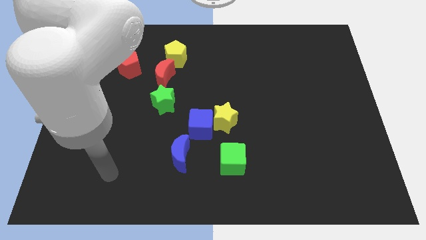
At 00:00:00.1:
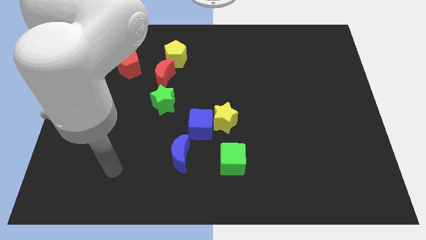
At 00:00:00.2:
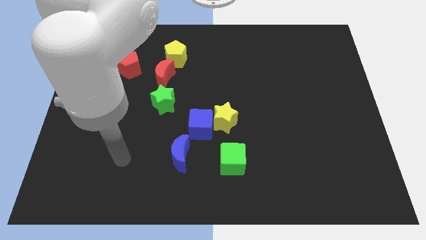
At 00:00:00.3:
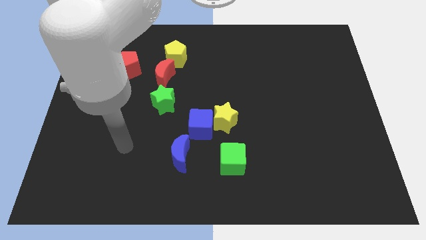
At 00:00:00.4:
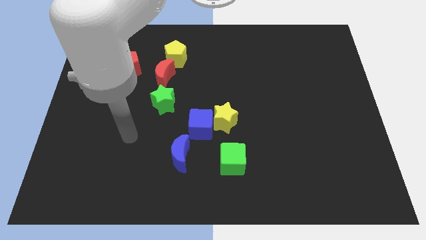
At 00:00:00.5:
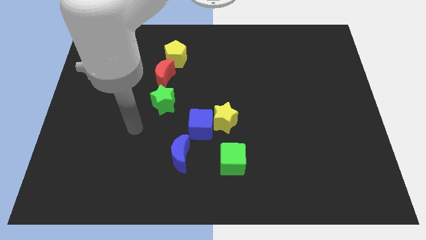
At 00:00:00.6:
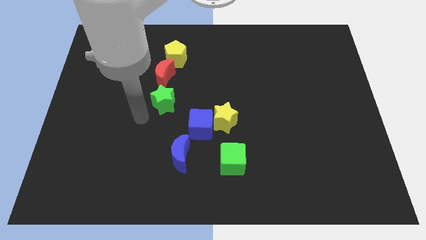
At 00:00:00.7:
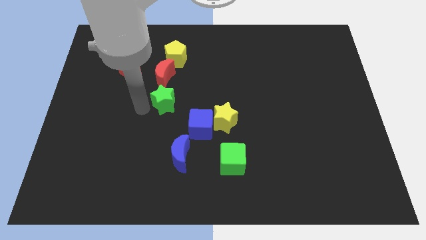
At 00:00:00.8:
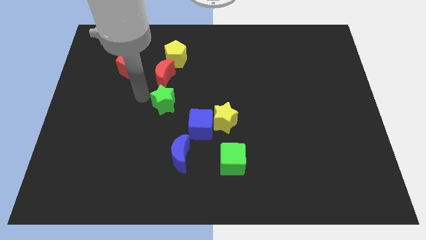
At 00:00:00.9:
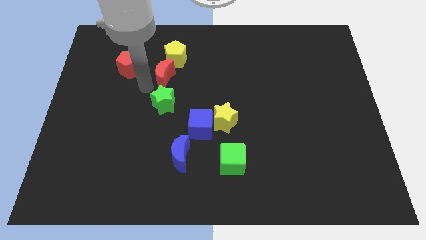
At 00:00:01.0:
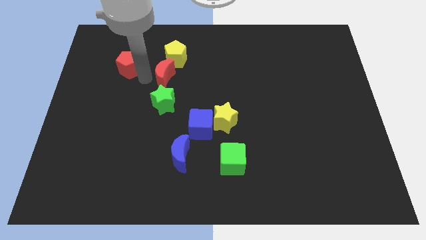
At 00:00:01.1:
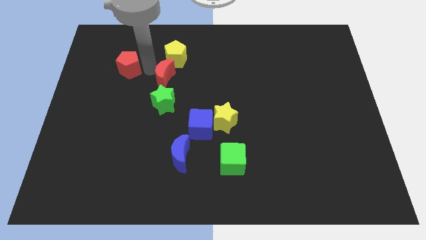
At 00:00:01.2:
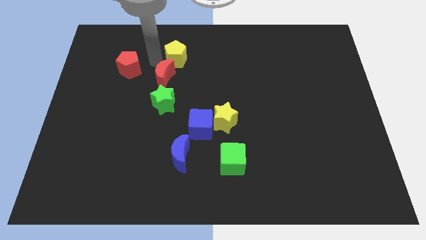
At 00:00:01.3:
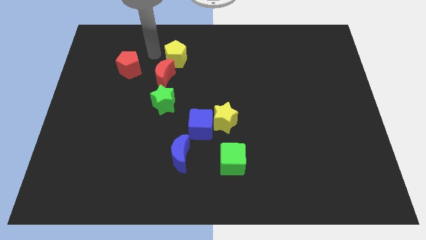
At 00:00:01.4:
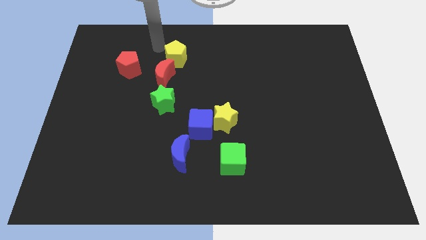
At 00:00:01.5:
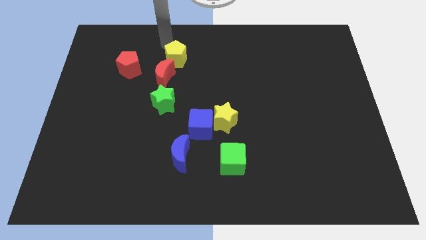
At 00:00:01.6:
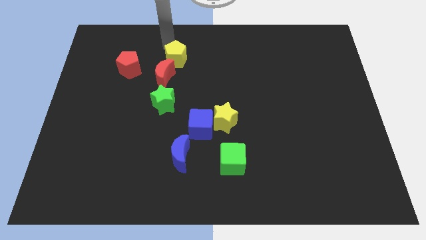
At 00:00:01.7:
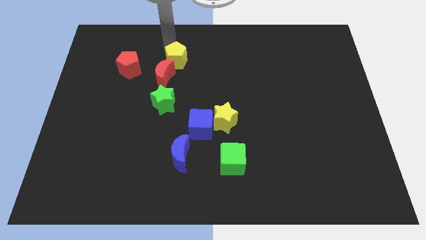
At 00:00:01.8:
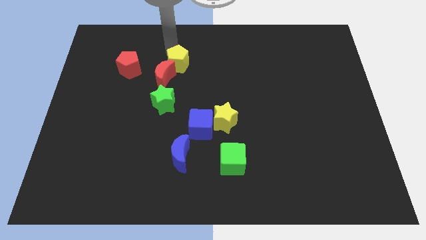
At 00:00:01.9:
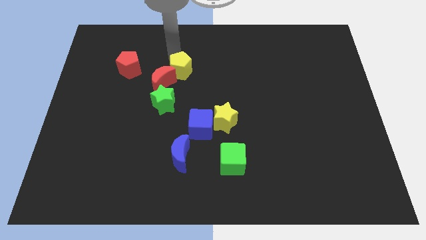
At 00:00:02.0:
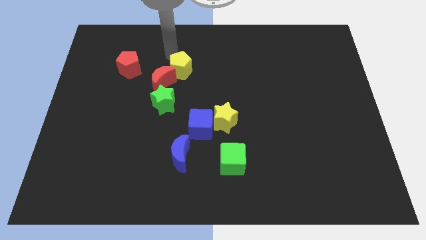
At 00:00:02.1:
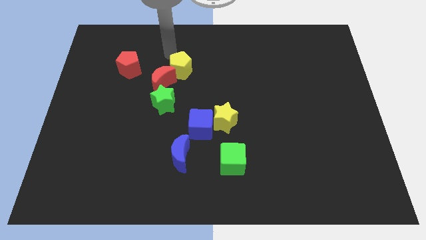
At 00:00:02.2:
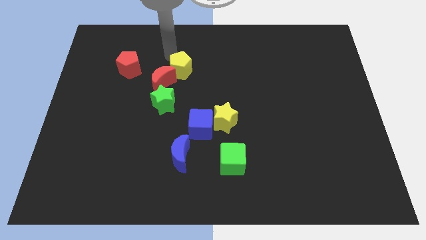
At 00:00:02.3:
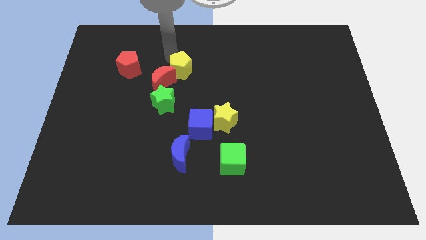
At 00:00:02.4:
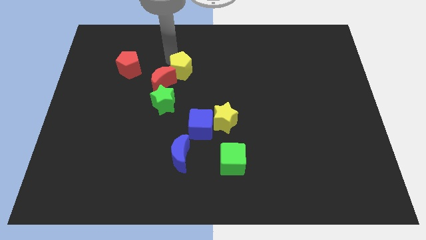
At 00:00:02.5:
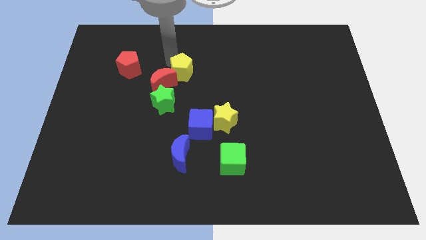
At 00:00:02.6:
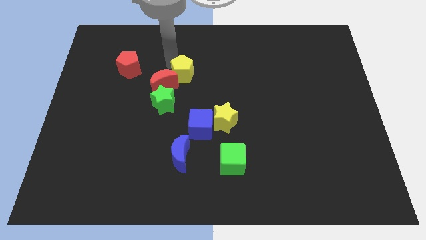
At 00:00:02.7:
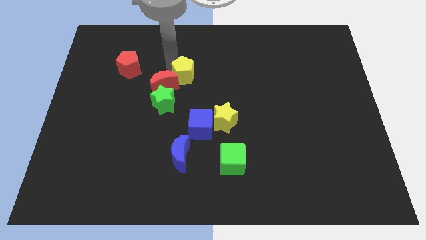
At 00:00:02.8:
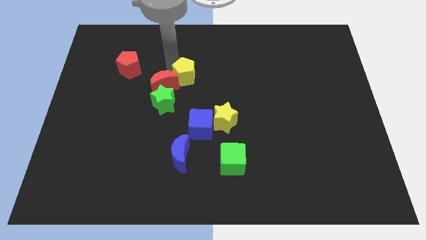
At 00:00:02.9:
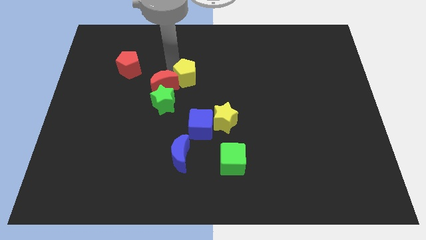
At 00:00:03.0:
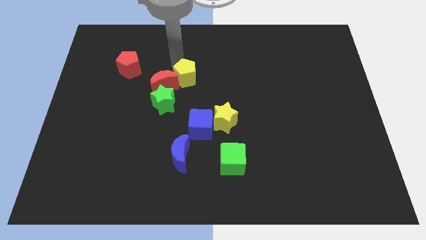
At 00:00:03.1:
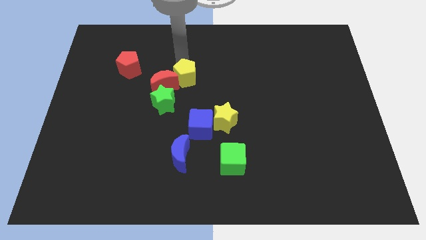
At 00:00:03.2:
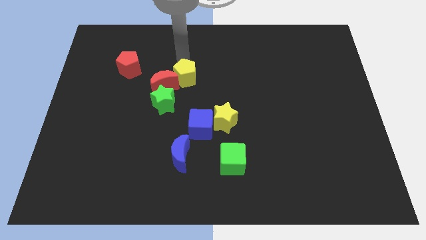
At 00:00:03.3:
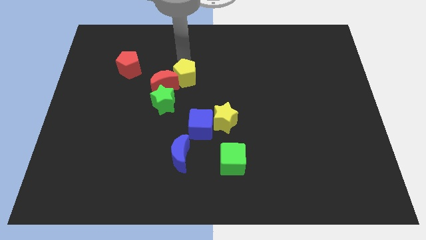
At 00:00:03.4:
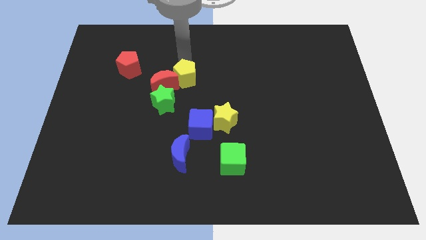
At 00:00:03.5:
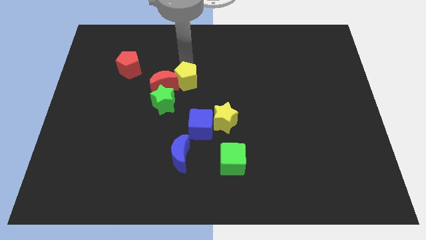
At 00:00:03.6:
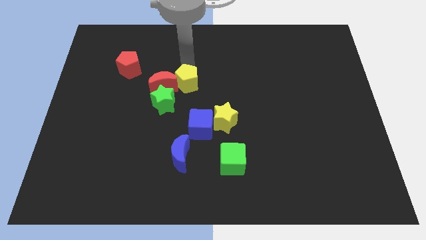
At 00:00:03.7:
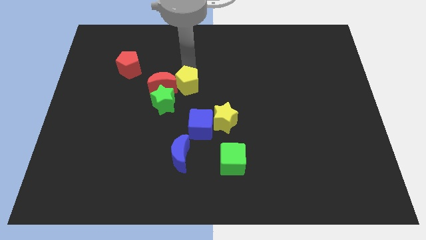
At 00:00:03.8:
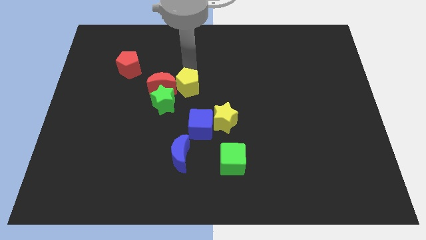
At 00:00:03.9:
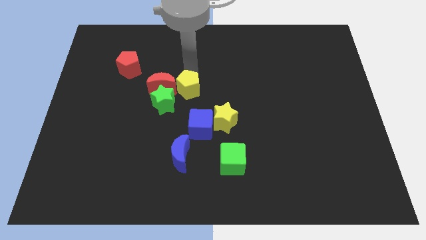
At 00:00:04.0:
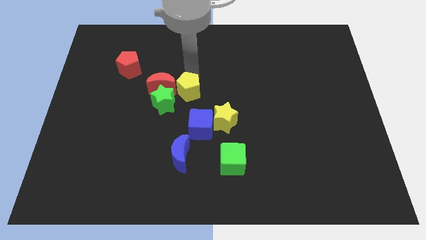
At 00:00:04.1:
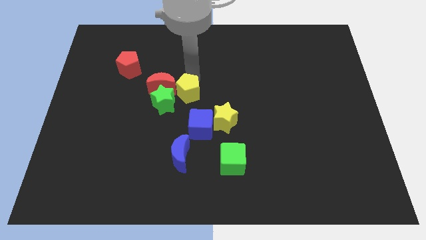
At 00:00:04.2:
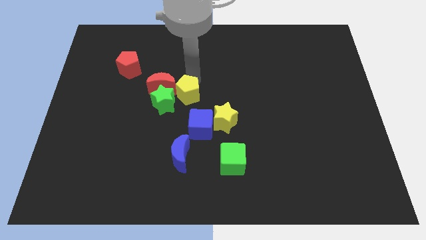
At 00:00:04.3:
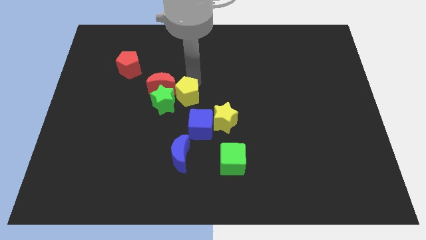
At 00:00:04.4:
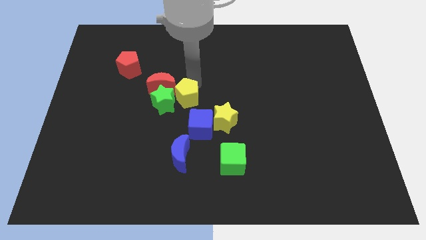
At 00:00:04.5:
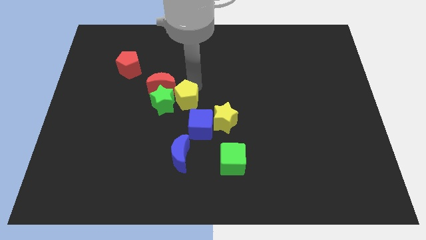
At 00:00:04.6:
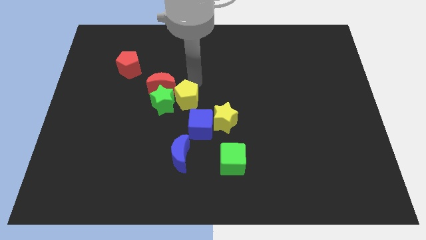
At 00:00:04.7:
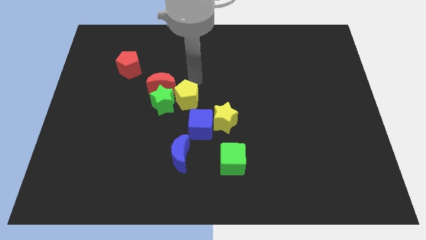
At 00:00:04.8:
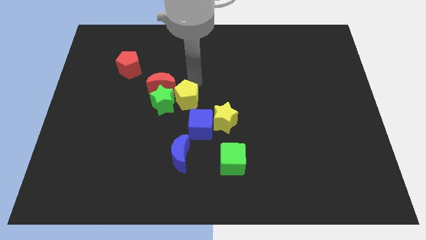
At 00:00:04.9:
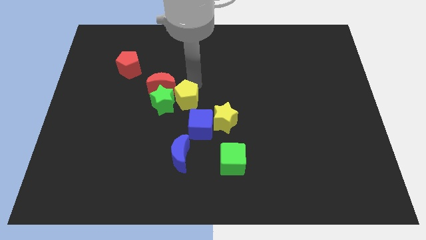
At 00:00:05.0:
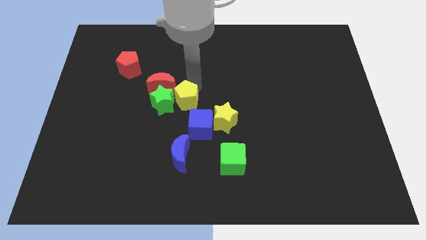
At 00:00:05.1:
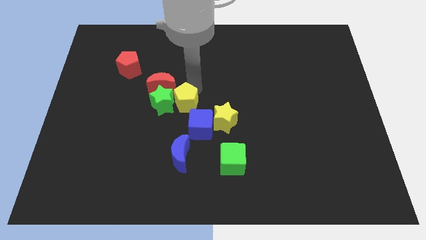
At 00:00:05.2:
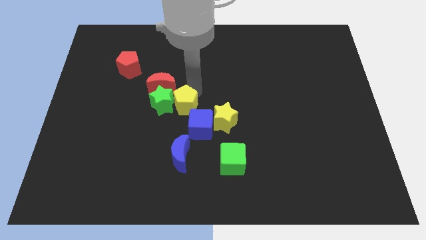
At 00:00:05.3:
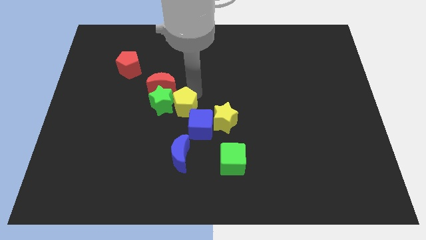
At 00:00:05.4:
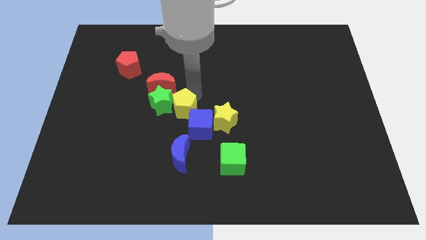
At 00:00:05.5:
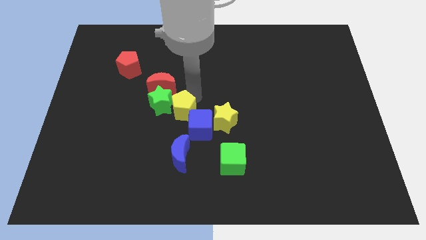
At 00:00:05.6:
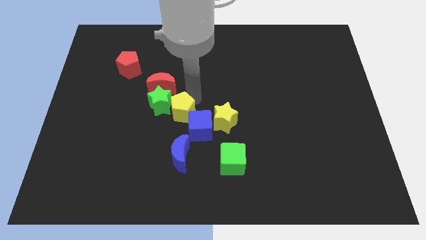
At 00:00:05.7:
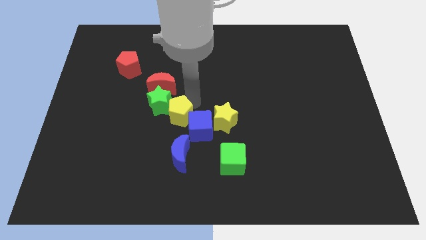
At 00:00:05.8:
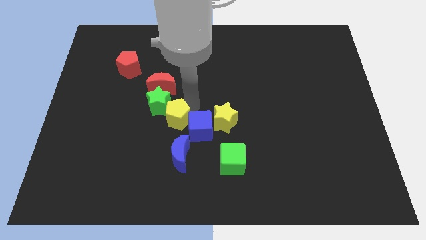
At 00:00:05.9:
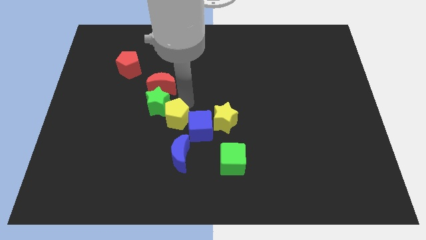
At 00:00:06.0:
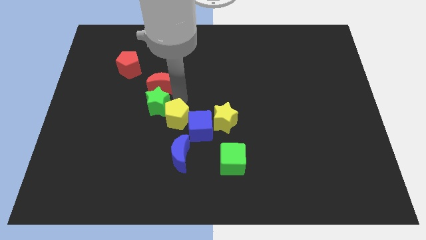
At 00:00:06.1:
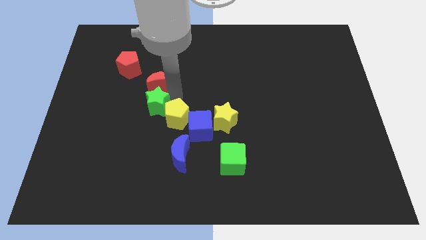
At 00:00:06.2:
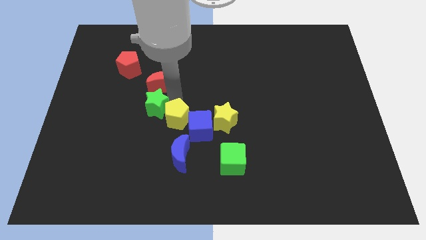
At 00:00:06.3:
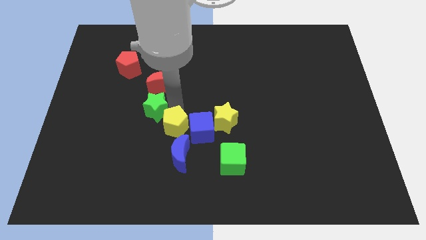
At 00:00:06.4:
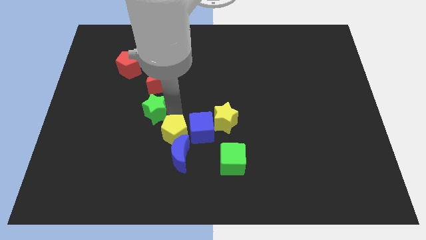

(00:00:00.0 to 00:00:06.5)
move the yellow pentagon close to the blue moon
